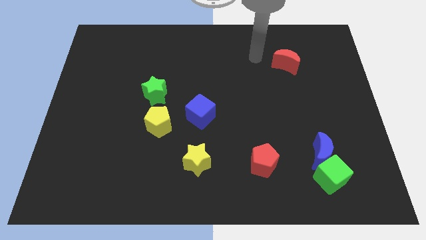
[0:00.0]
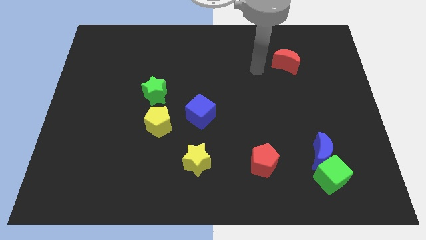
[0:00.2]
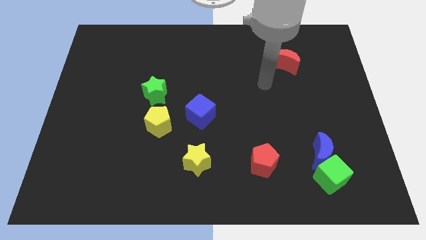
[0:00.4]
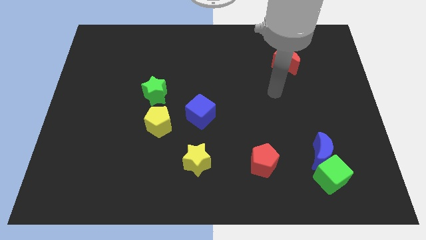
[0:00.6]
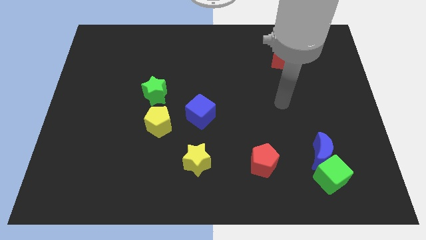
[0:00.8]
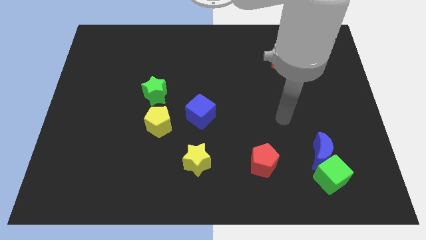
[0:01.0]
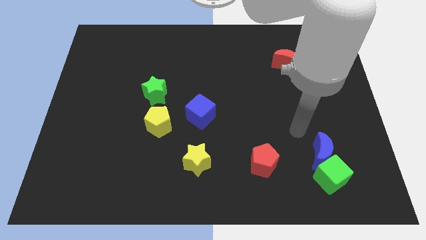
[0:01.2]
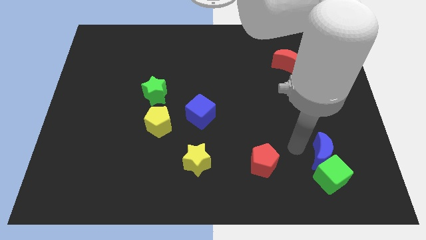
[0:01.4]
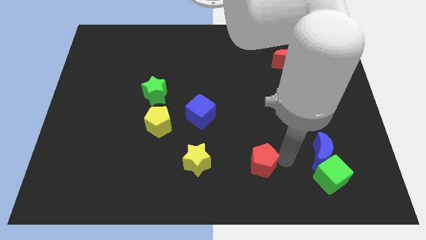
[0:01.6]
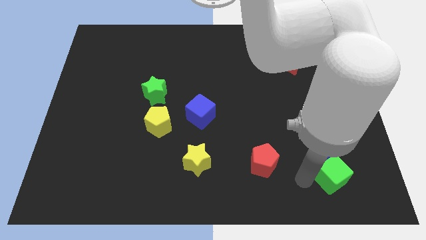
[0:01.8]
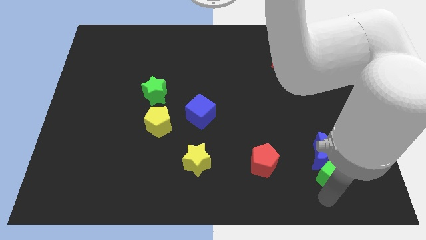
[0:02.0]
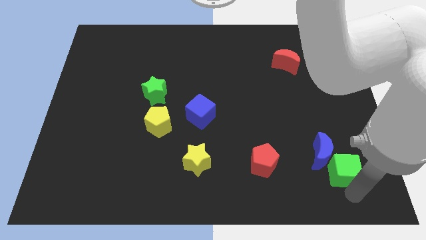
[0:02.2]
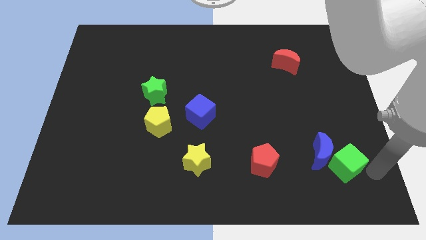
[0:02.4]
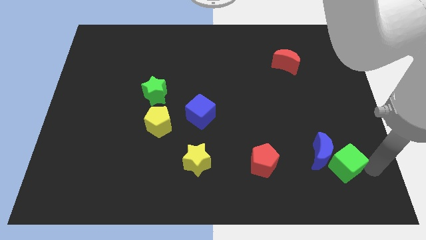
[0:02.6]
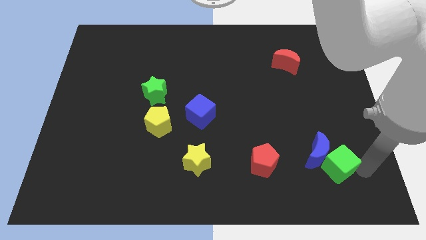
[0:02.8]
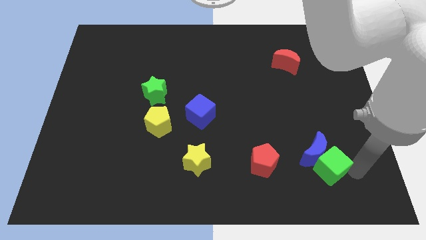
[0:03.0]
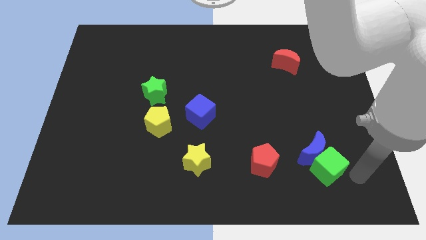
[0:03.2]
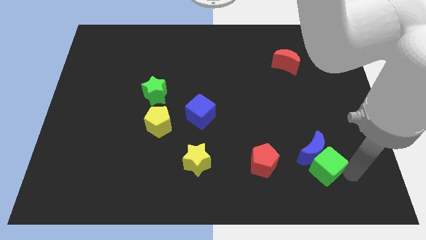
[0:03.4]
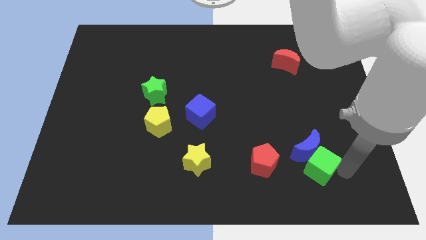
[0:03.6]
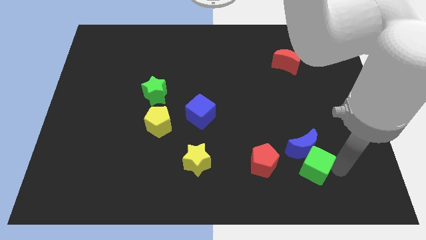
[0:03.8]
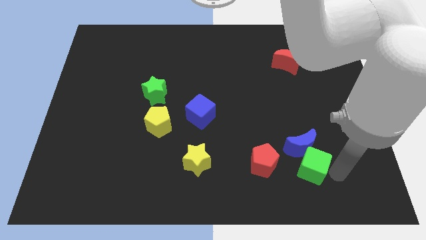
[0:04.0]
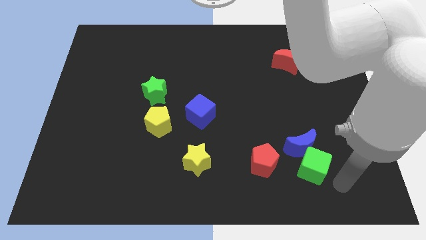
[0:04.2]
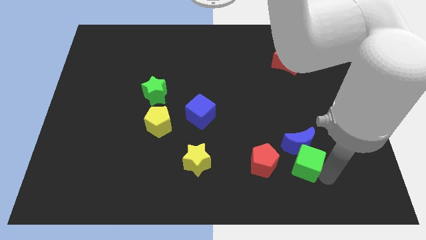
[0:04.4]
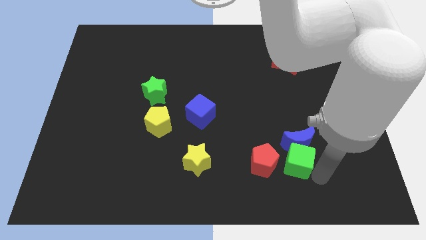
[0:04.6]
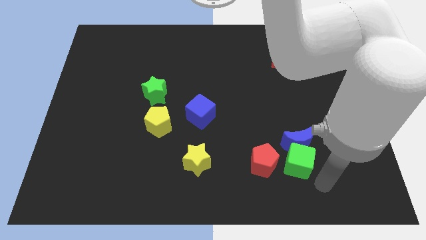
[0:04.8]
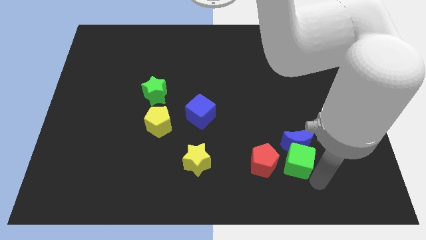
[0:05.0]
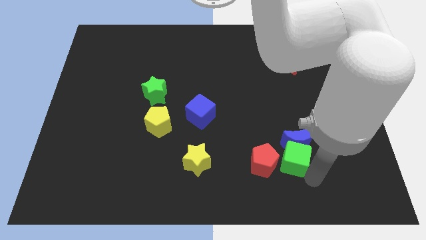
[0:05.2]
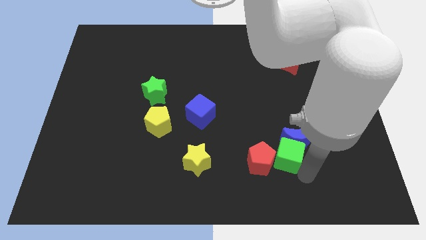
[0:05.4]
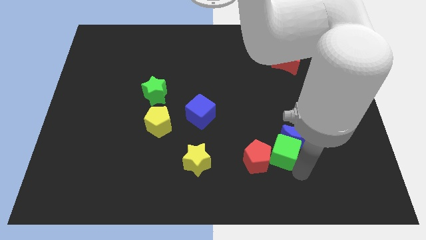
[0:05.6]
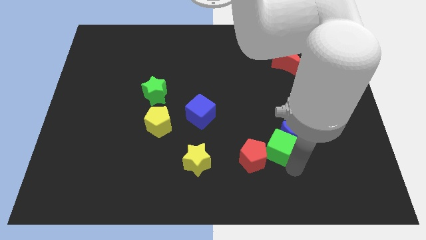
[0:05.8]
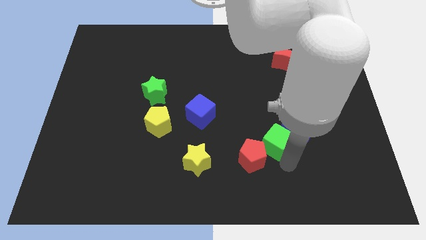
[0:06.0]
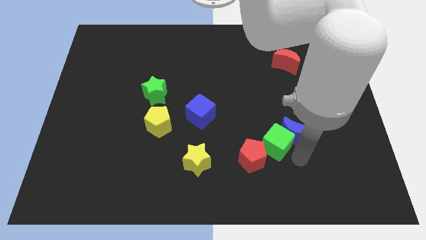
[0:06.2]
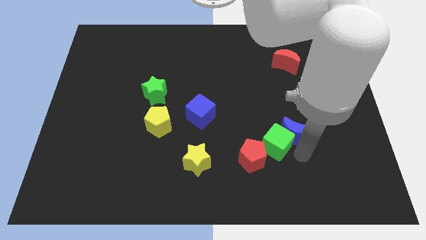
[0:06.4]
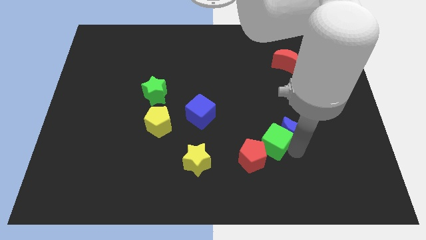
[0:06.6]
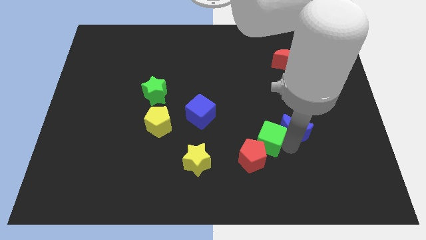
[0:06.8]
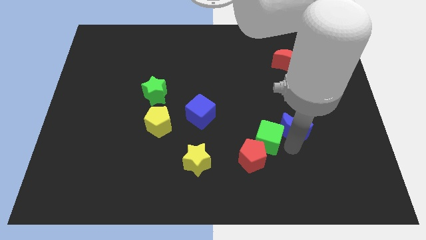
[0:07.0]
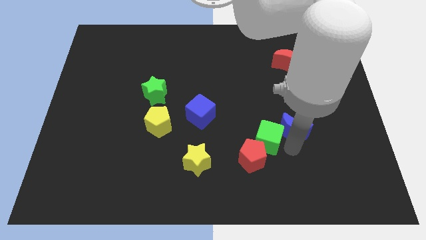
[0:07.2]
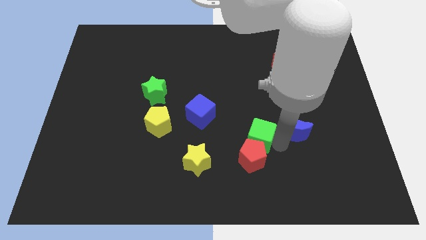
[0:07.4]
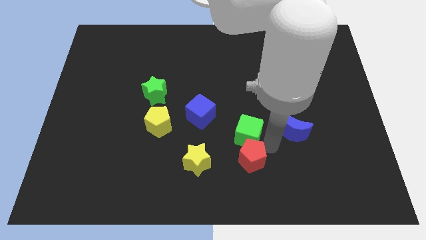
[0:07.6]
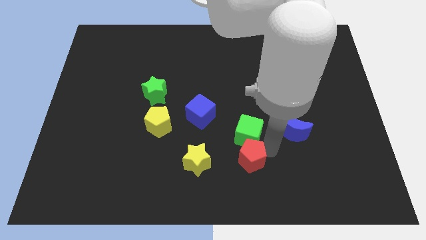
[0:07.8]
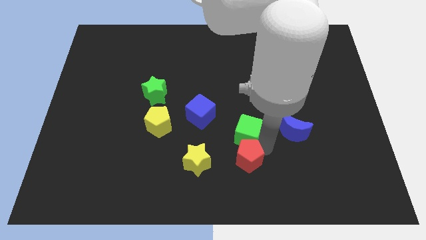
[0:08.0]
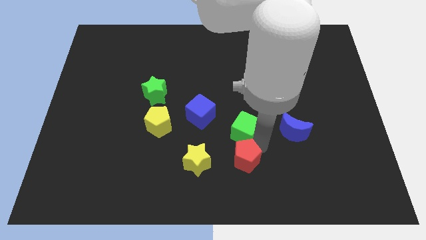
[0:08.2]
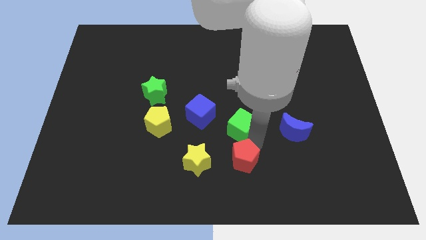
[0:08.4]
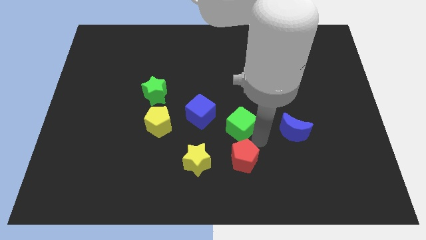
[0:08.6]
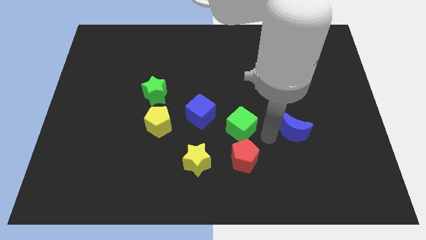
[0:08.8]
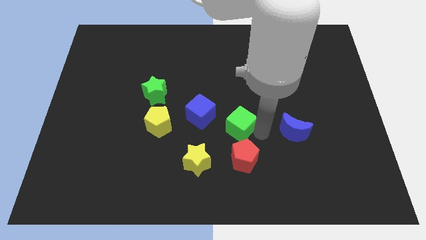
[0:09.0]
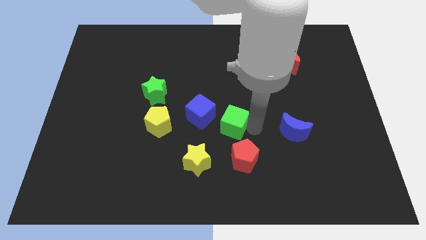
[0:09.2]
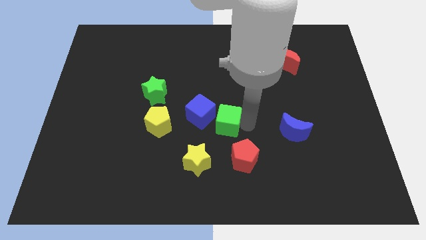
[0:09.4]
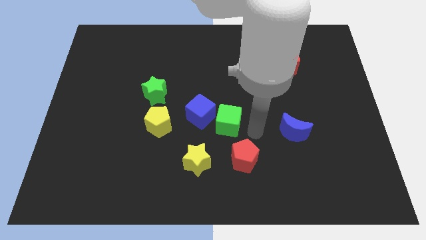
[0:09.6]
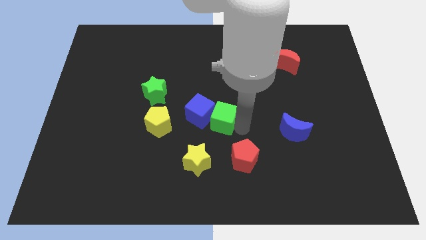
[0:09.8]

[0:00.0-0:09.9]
put the green cube close to the blue cube

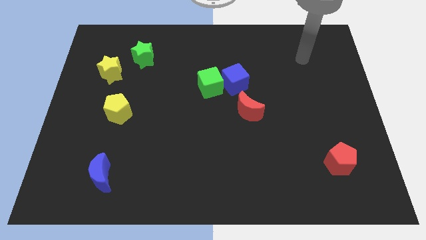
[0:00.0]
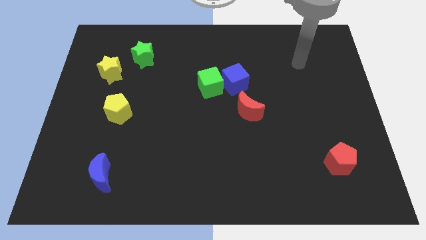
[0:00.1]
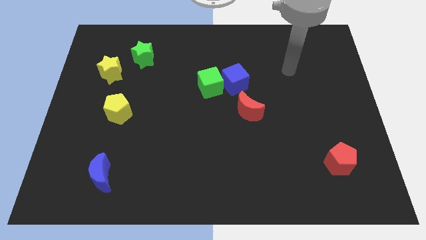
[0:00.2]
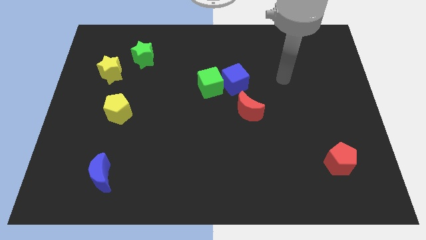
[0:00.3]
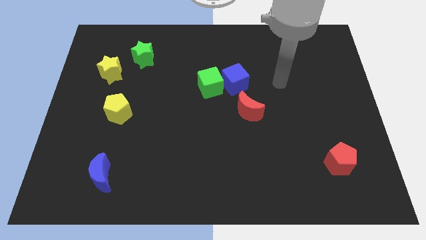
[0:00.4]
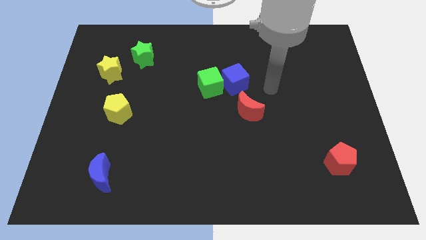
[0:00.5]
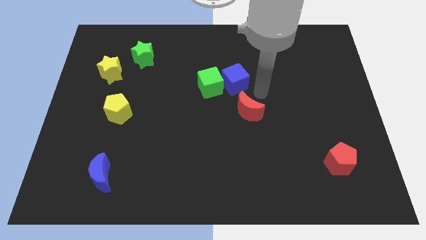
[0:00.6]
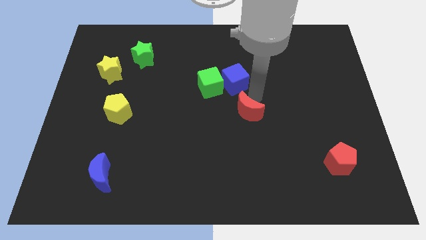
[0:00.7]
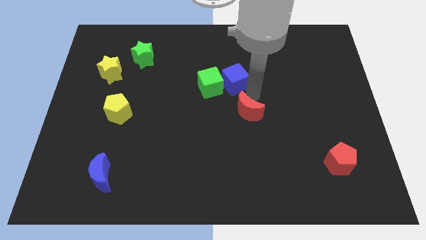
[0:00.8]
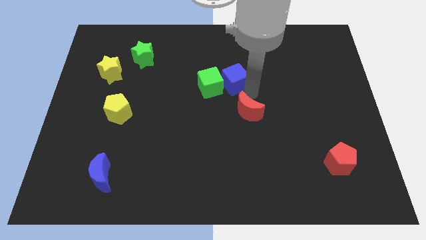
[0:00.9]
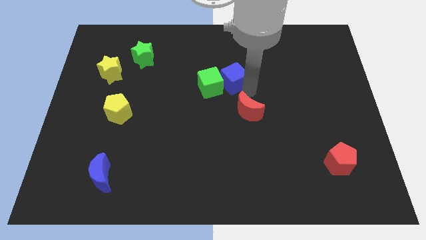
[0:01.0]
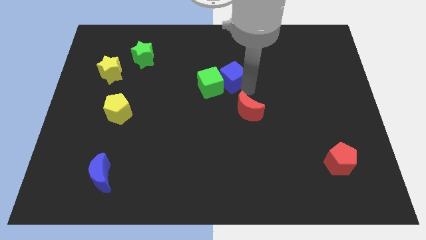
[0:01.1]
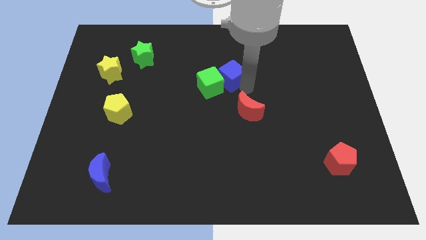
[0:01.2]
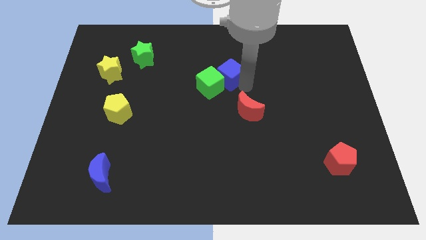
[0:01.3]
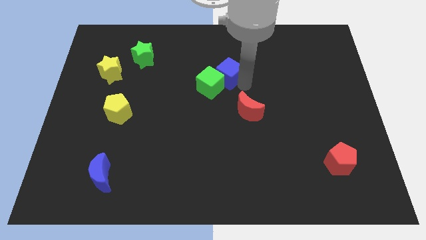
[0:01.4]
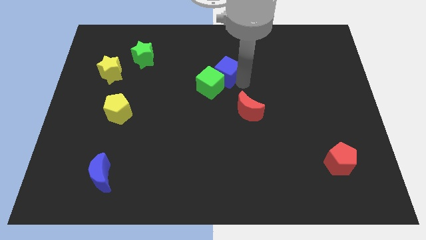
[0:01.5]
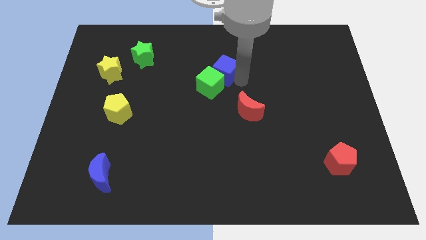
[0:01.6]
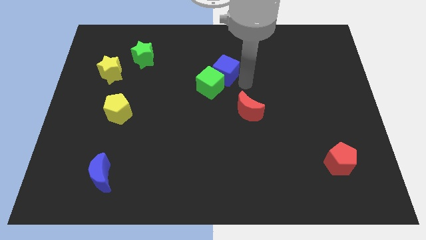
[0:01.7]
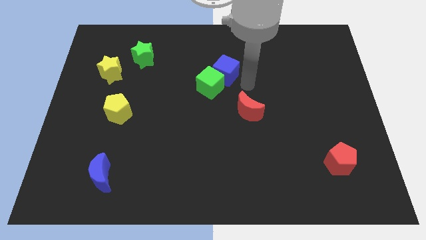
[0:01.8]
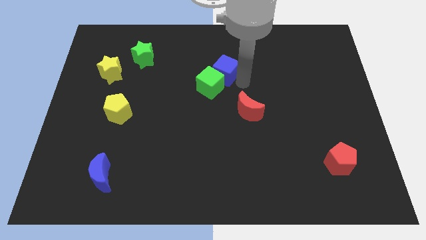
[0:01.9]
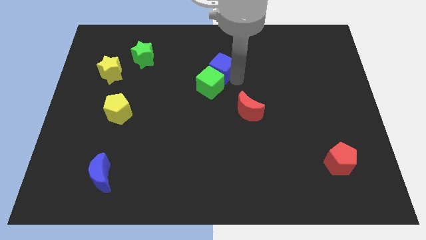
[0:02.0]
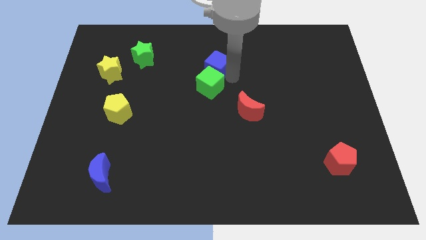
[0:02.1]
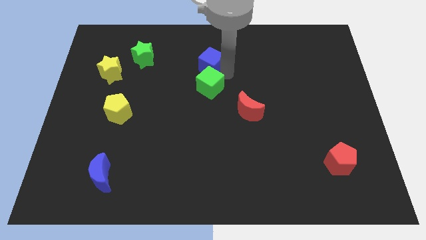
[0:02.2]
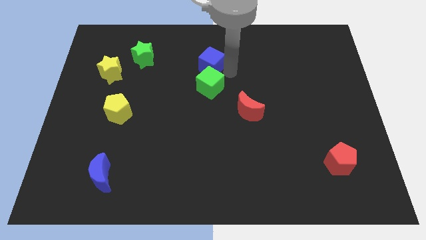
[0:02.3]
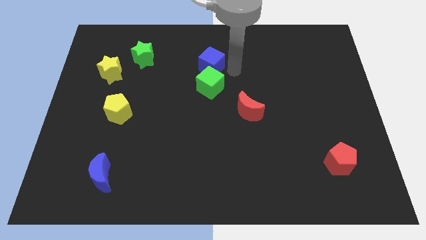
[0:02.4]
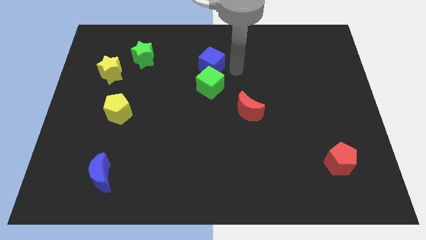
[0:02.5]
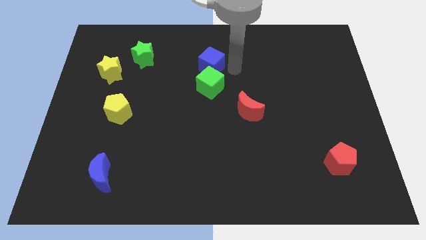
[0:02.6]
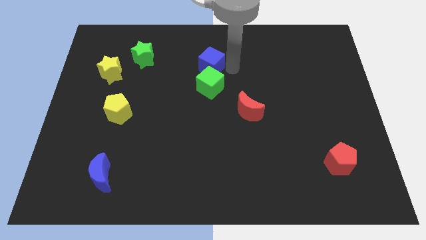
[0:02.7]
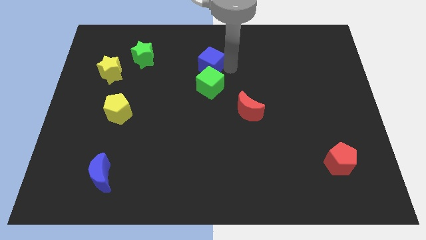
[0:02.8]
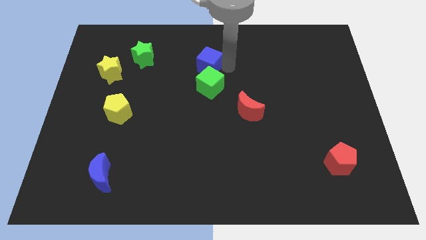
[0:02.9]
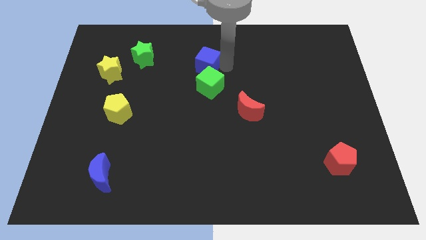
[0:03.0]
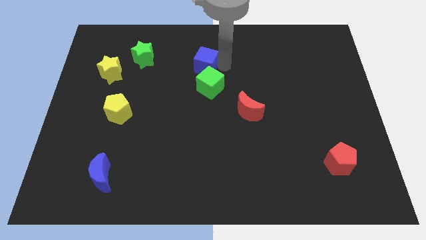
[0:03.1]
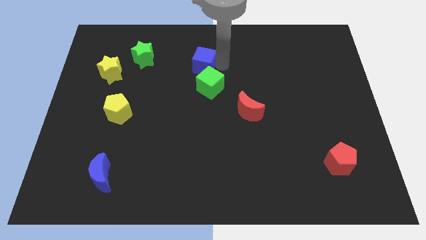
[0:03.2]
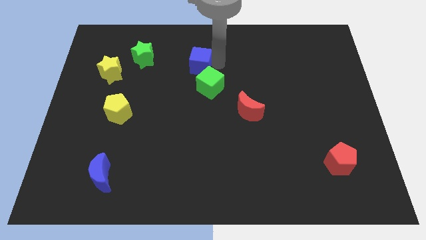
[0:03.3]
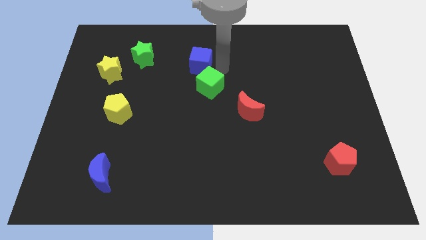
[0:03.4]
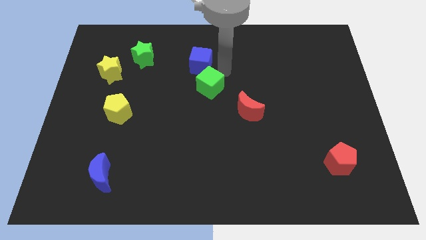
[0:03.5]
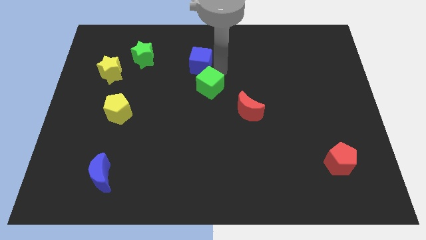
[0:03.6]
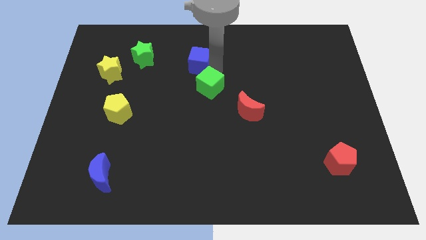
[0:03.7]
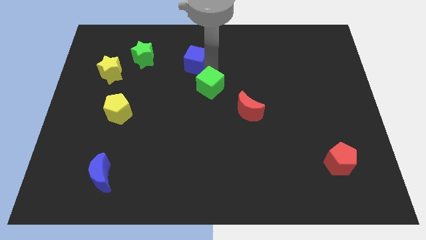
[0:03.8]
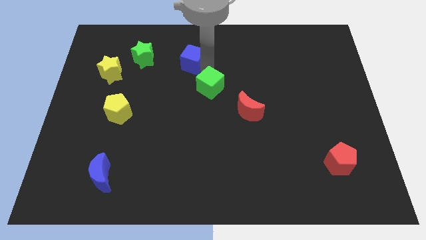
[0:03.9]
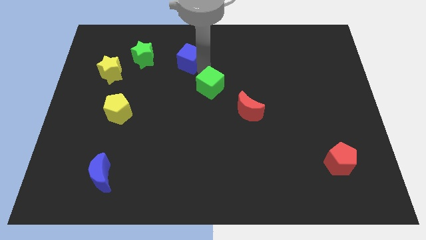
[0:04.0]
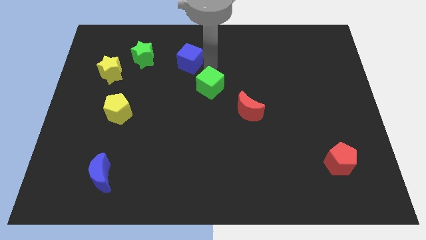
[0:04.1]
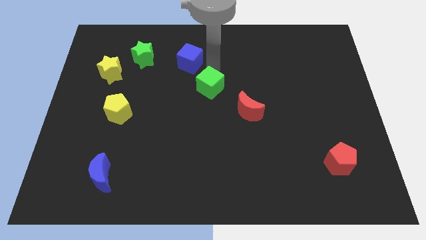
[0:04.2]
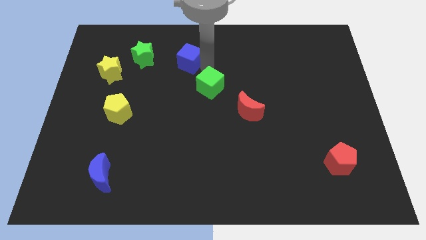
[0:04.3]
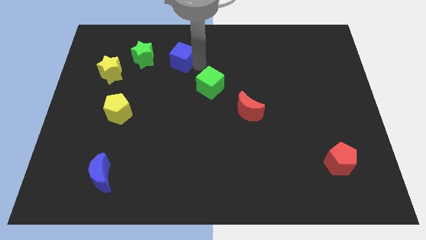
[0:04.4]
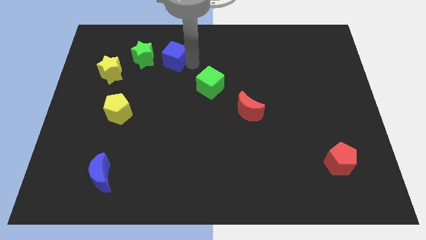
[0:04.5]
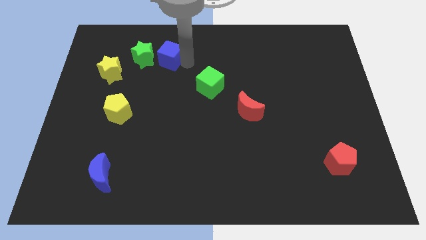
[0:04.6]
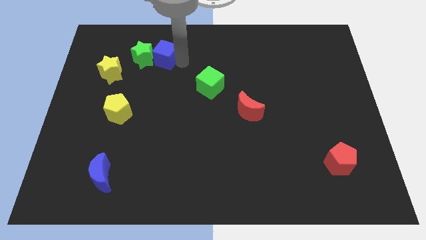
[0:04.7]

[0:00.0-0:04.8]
slide the blue cube towards the green star
